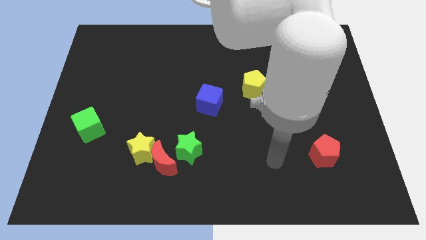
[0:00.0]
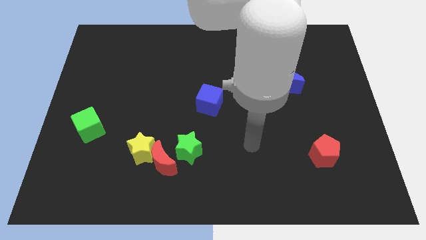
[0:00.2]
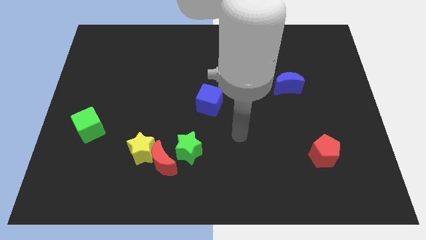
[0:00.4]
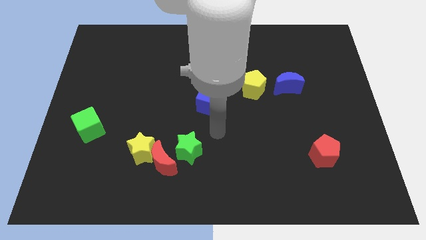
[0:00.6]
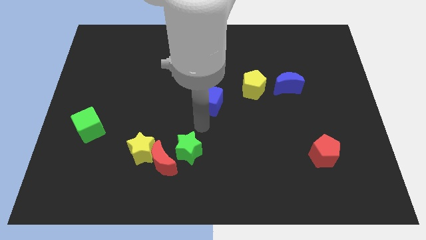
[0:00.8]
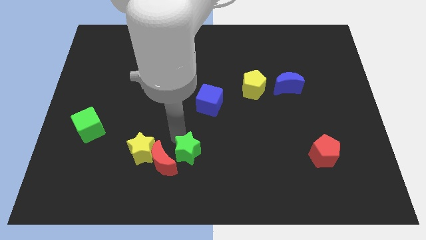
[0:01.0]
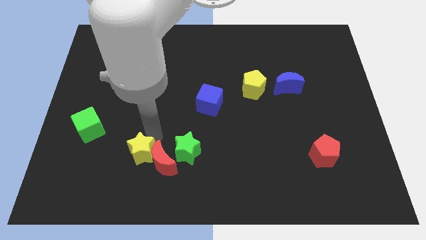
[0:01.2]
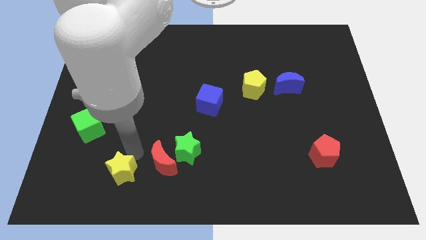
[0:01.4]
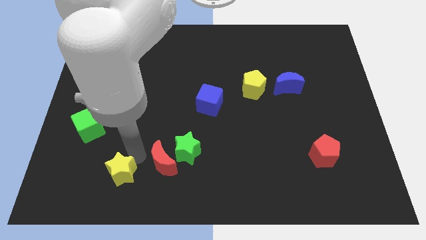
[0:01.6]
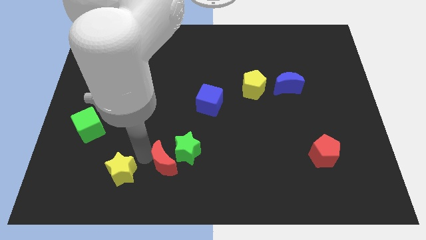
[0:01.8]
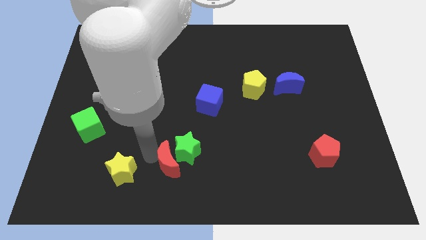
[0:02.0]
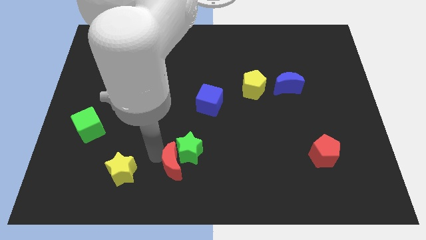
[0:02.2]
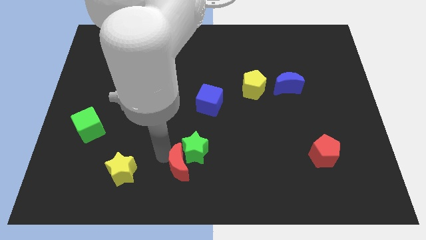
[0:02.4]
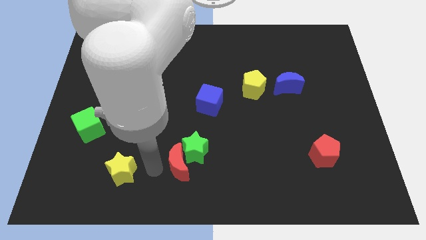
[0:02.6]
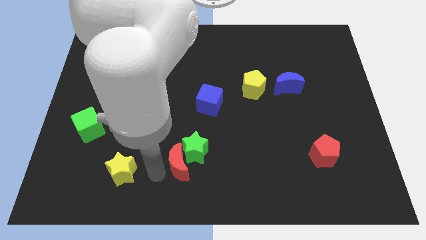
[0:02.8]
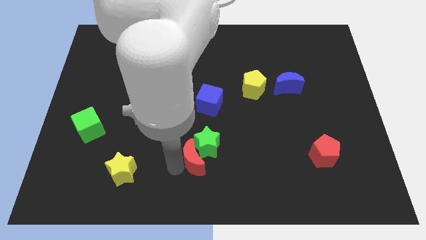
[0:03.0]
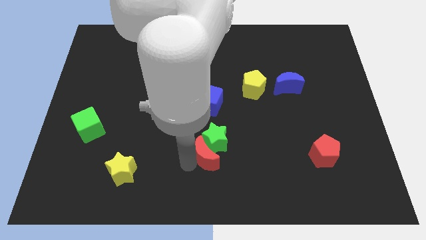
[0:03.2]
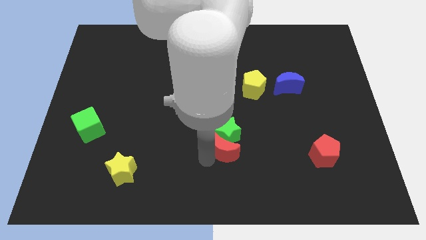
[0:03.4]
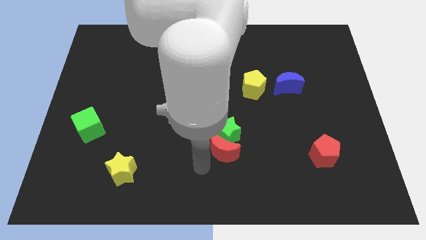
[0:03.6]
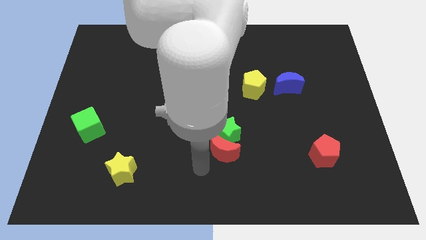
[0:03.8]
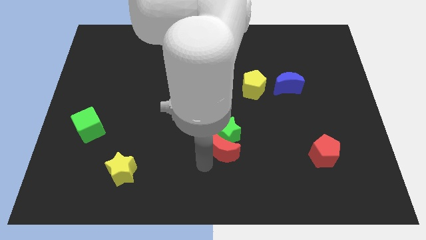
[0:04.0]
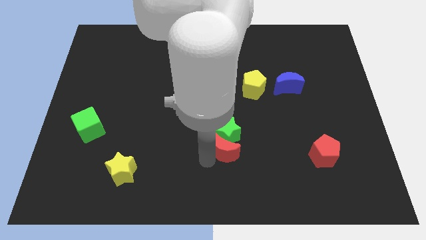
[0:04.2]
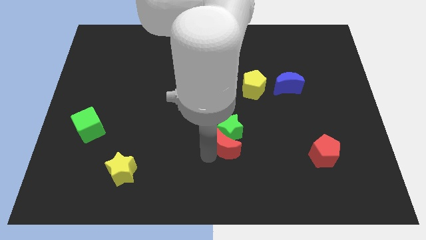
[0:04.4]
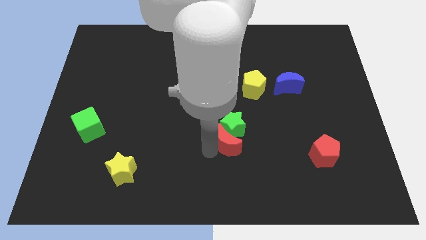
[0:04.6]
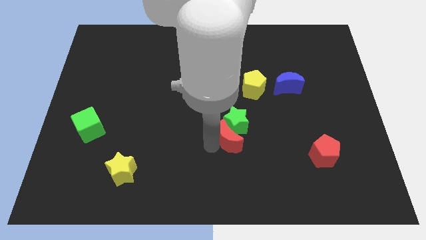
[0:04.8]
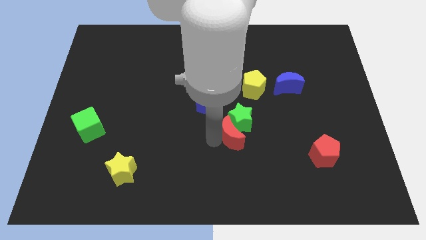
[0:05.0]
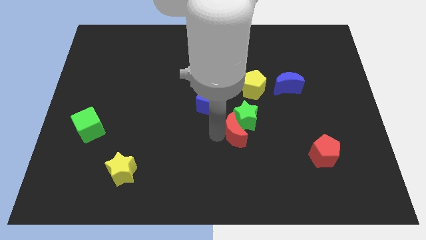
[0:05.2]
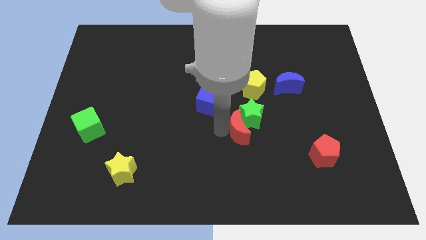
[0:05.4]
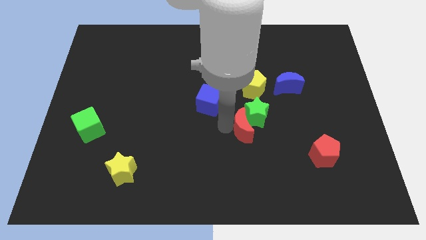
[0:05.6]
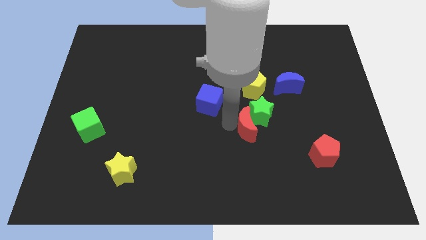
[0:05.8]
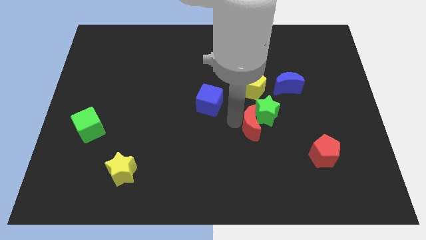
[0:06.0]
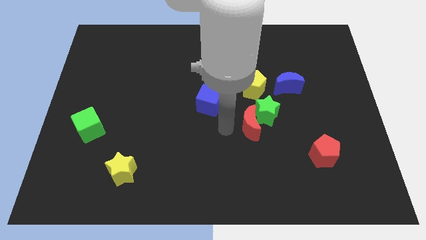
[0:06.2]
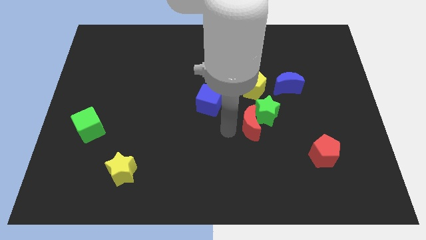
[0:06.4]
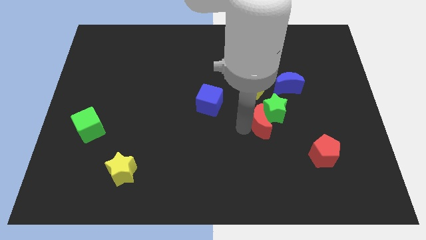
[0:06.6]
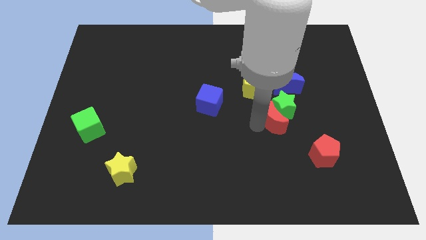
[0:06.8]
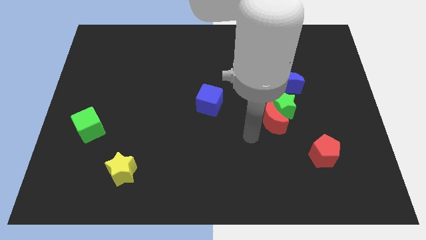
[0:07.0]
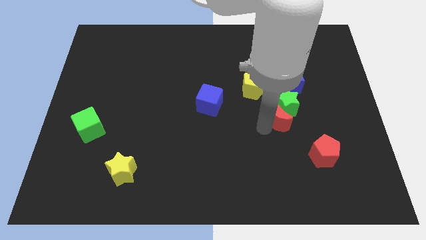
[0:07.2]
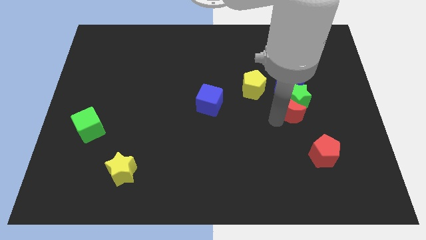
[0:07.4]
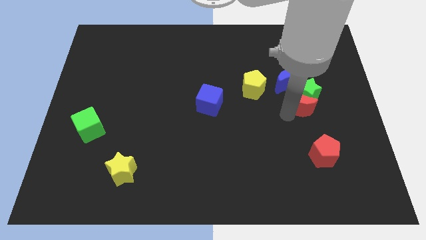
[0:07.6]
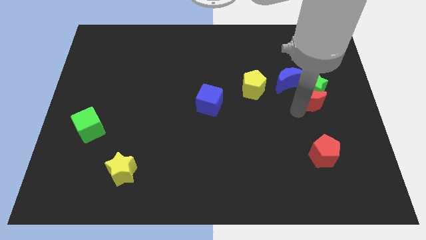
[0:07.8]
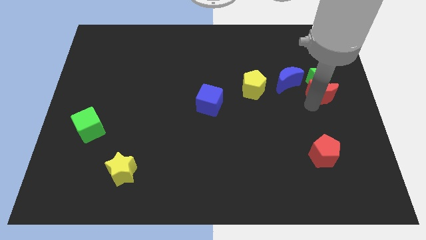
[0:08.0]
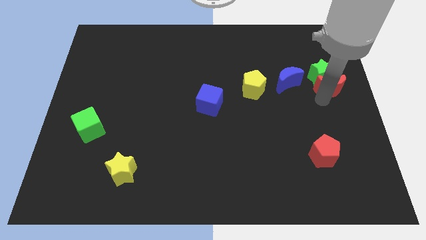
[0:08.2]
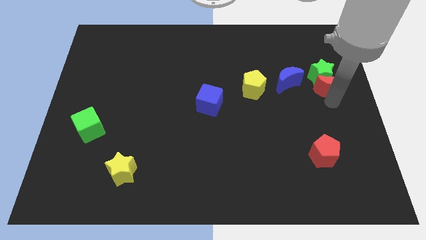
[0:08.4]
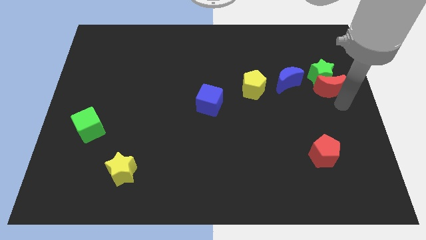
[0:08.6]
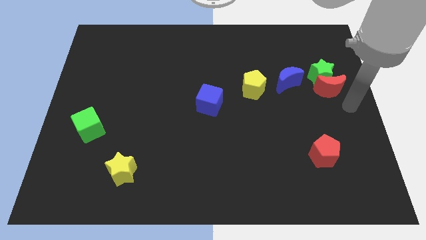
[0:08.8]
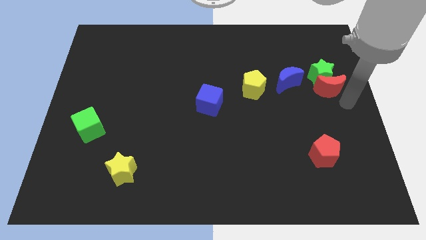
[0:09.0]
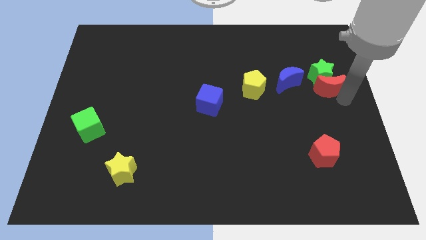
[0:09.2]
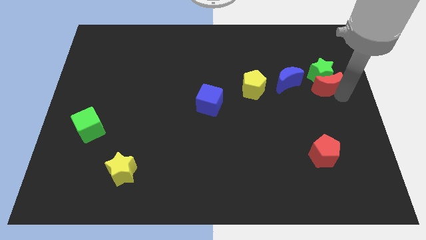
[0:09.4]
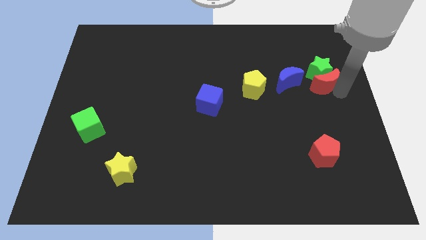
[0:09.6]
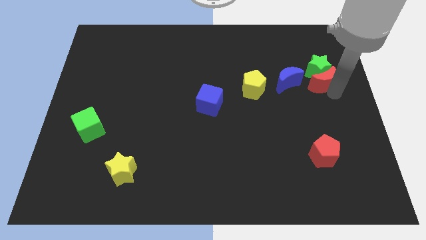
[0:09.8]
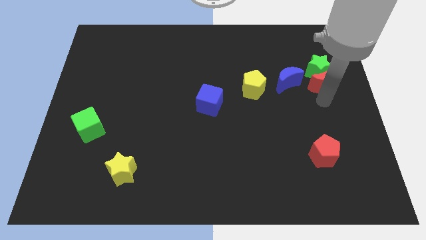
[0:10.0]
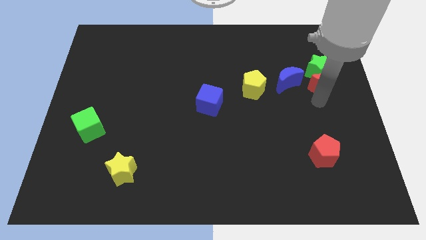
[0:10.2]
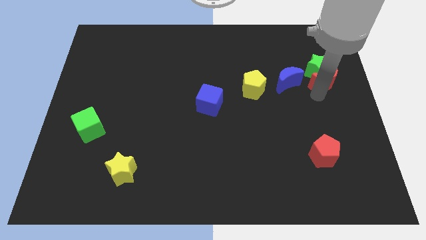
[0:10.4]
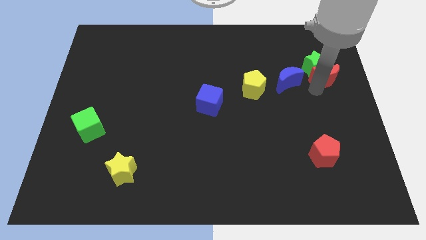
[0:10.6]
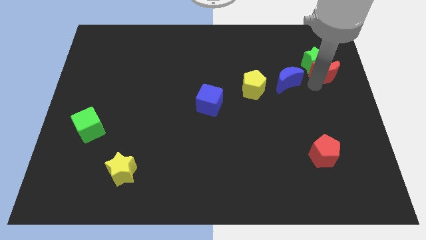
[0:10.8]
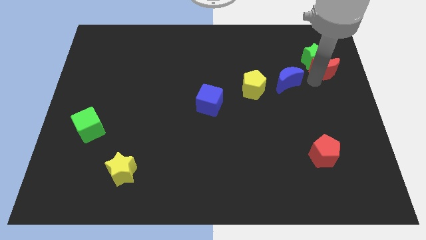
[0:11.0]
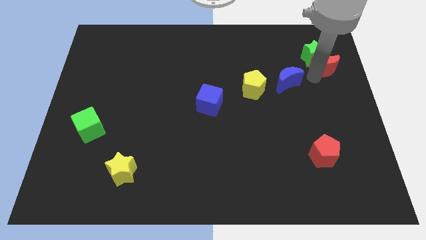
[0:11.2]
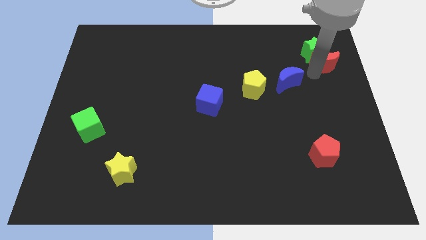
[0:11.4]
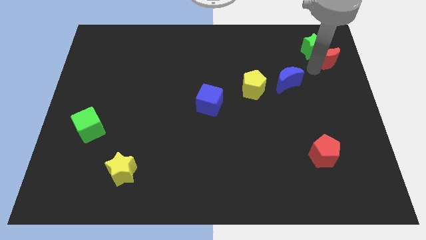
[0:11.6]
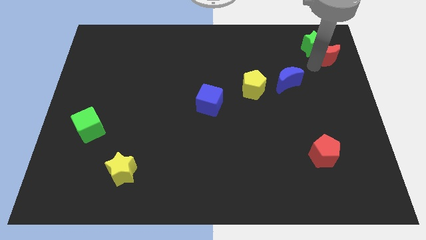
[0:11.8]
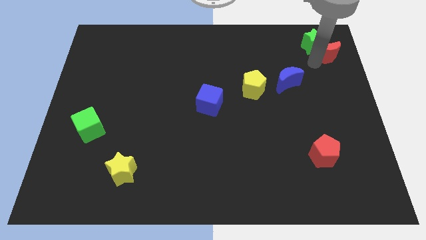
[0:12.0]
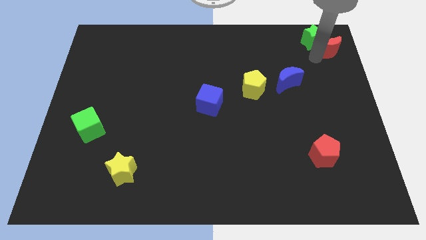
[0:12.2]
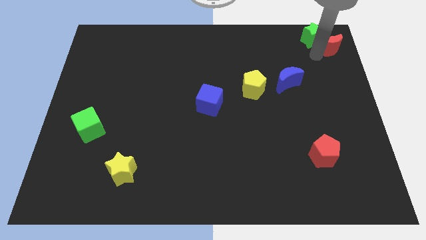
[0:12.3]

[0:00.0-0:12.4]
put the red moon to the top right corner
